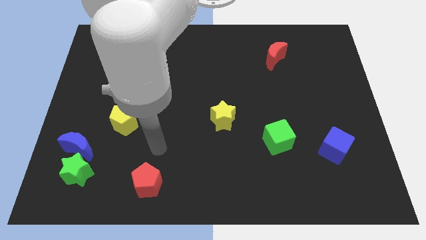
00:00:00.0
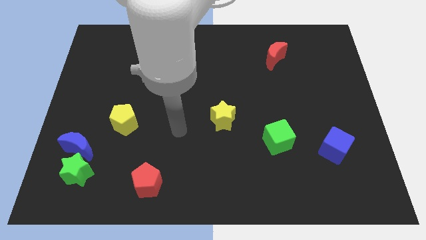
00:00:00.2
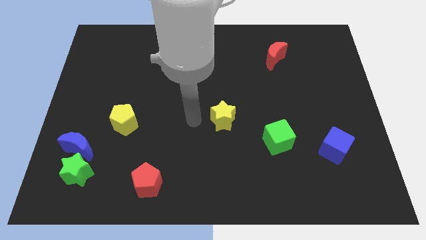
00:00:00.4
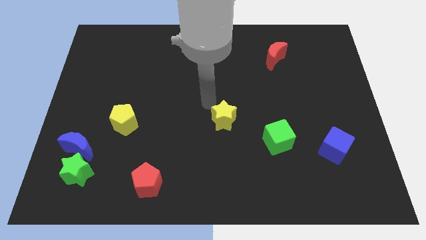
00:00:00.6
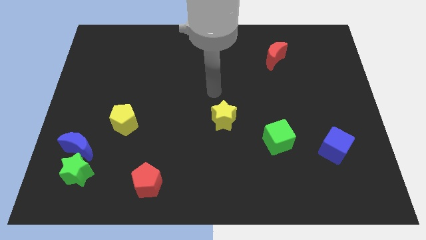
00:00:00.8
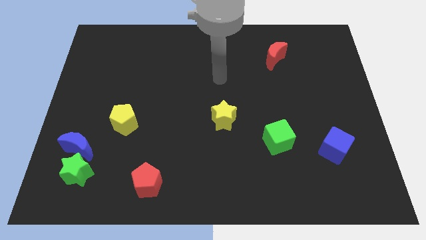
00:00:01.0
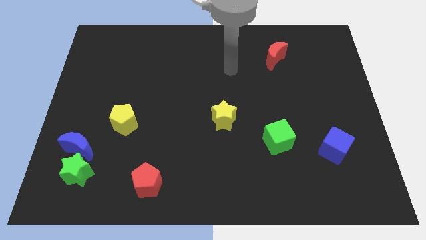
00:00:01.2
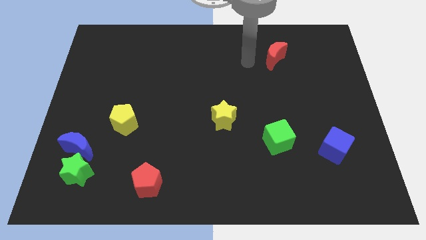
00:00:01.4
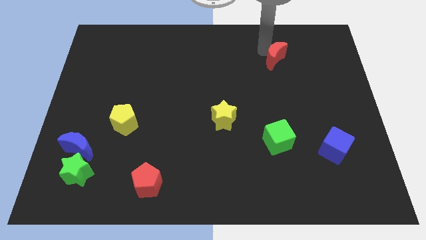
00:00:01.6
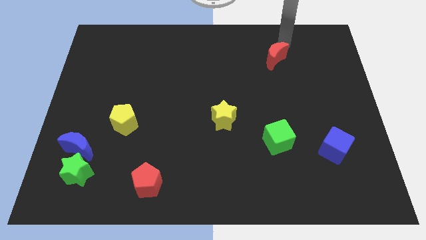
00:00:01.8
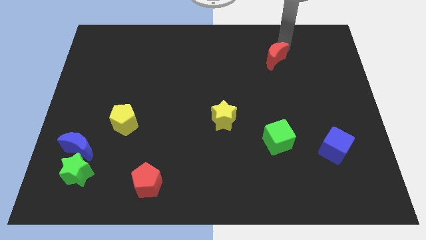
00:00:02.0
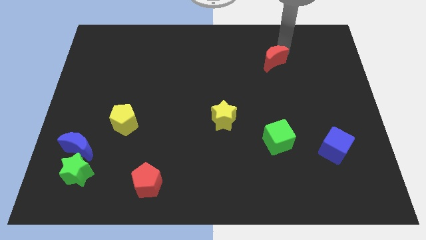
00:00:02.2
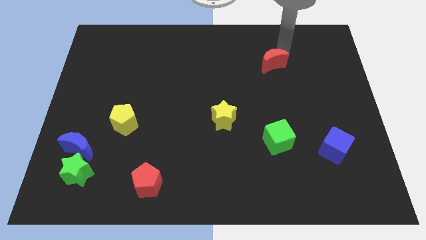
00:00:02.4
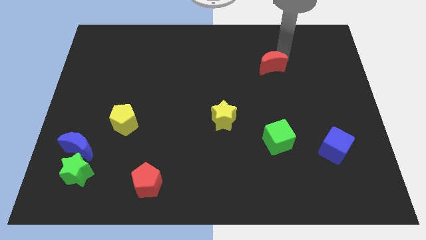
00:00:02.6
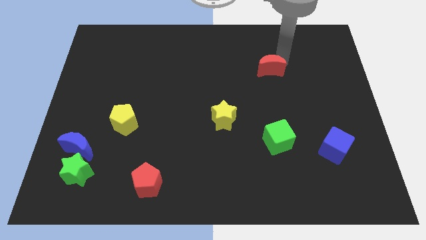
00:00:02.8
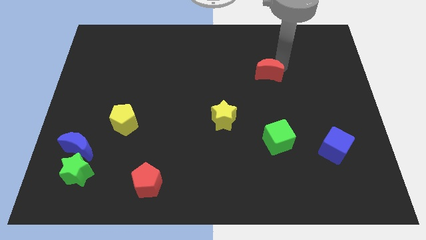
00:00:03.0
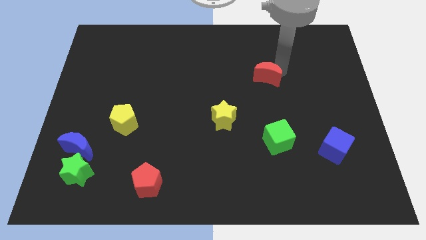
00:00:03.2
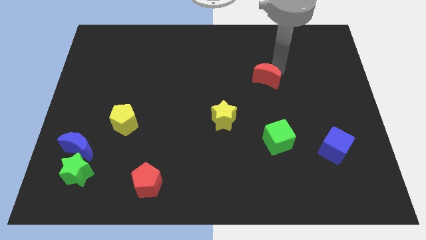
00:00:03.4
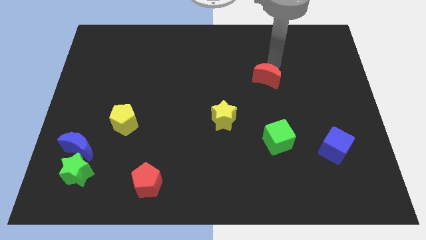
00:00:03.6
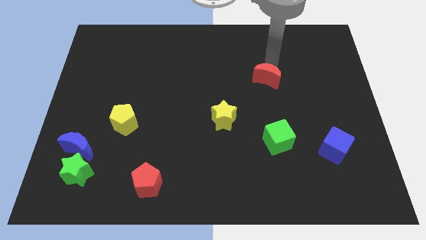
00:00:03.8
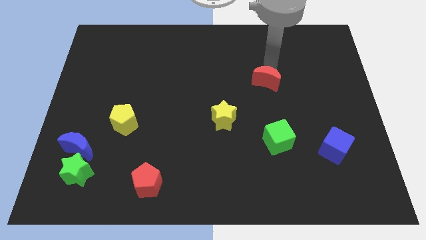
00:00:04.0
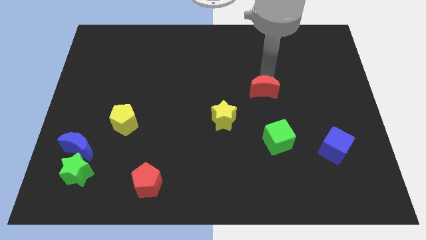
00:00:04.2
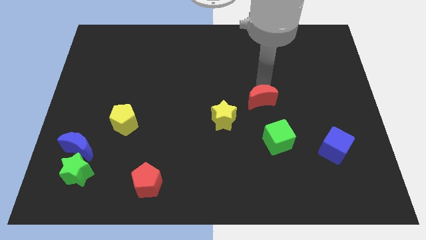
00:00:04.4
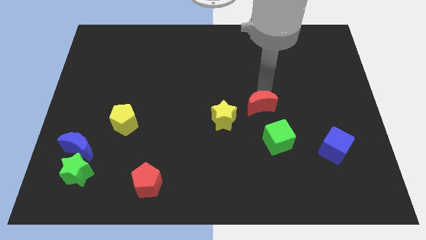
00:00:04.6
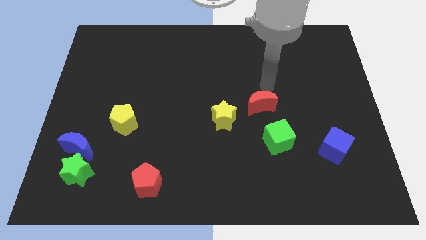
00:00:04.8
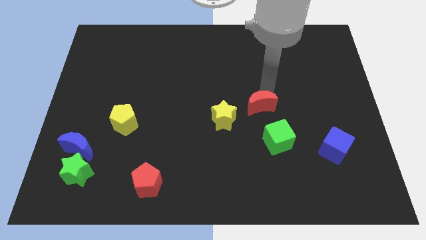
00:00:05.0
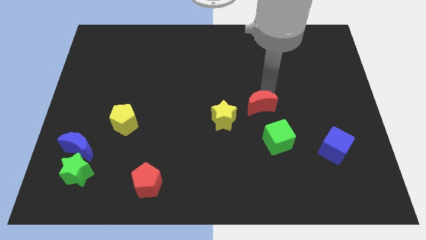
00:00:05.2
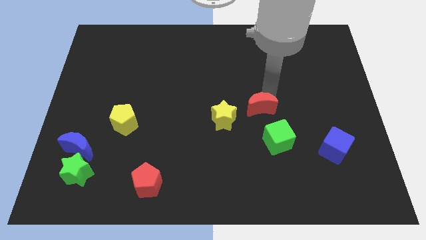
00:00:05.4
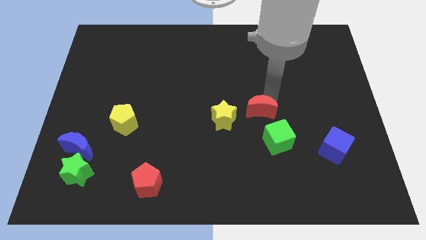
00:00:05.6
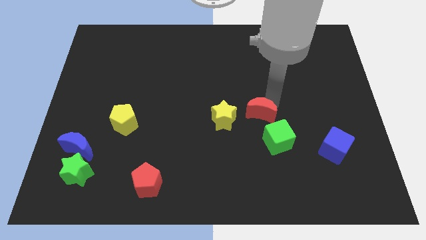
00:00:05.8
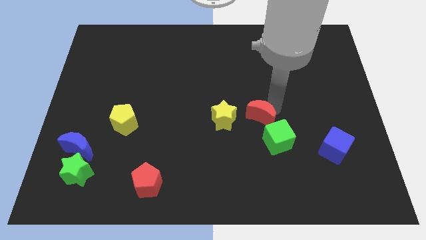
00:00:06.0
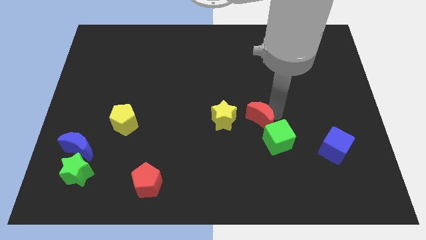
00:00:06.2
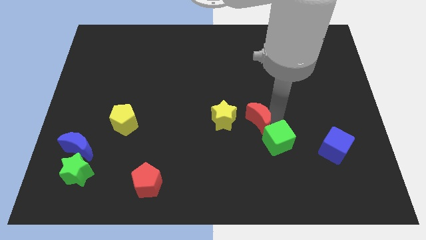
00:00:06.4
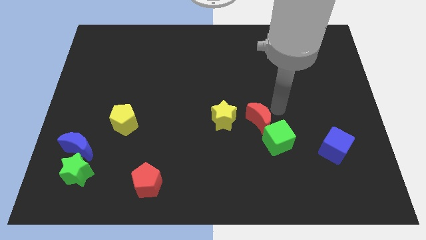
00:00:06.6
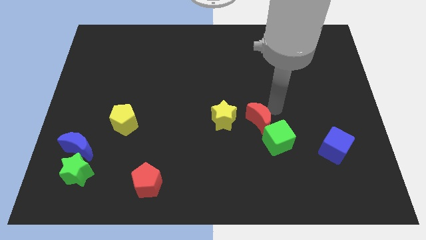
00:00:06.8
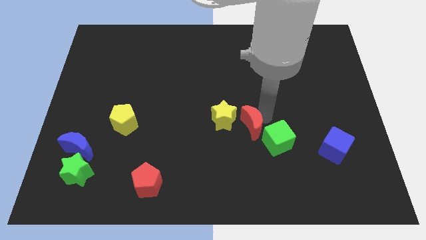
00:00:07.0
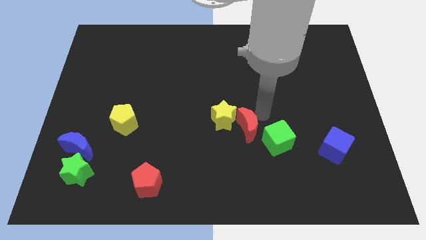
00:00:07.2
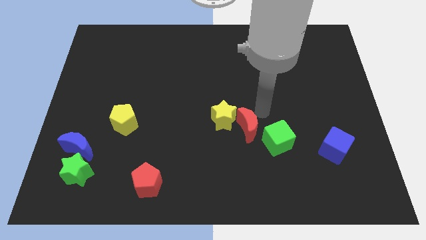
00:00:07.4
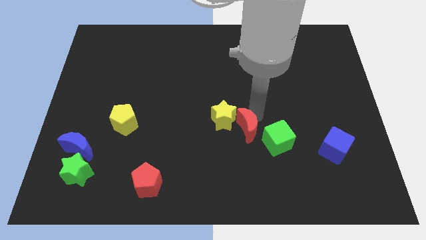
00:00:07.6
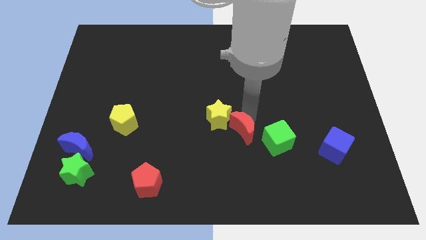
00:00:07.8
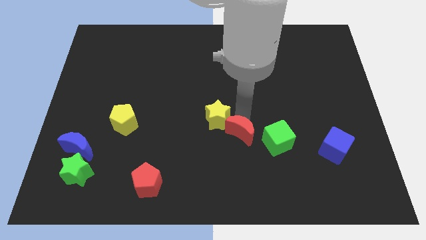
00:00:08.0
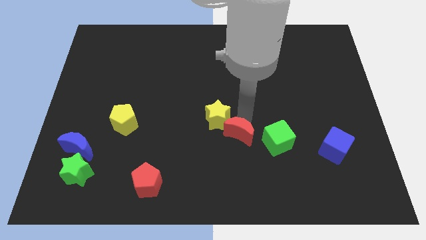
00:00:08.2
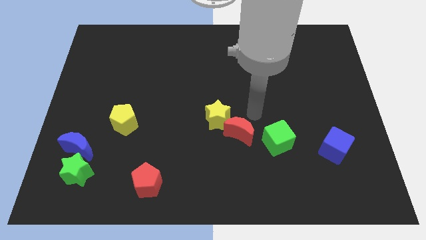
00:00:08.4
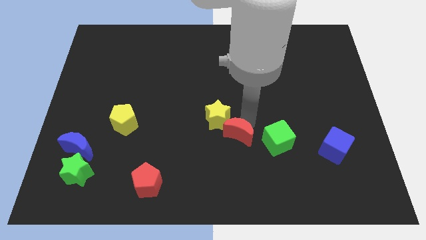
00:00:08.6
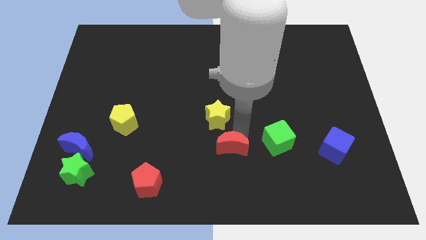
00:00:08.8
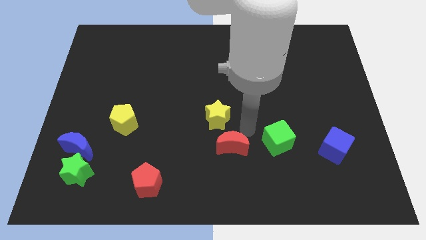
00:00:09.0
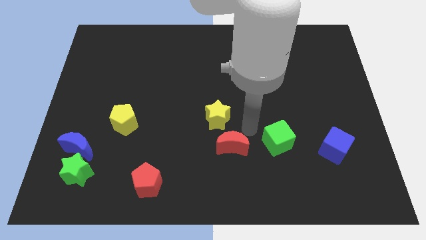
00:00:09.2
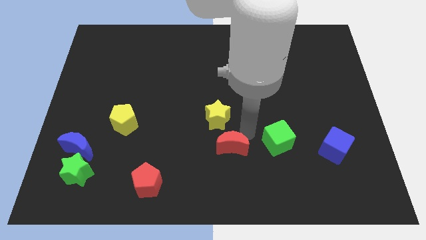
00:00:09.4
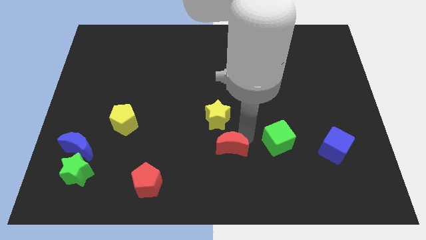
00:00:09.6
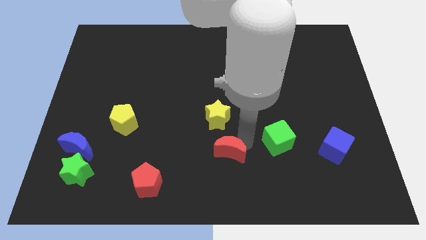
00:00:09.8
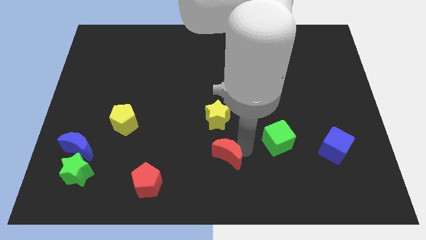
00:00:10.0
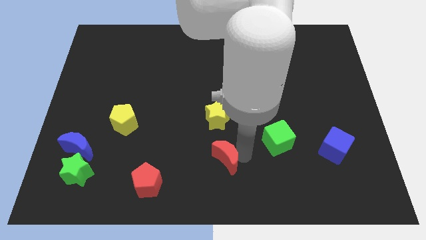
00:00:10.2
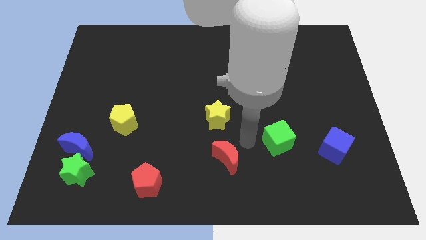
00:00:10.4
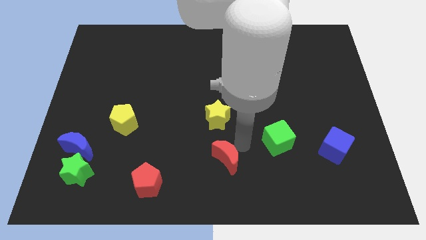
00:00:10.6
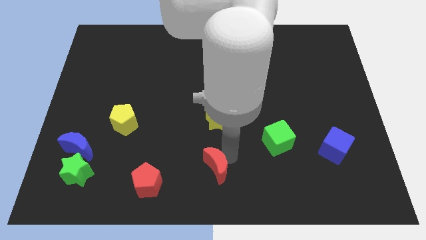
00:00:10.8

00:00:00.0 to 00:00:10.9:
push the red moon to the right side of the red pentagon

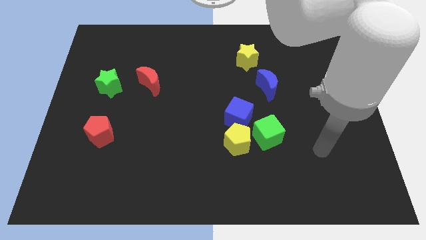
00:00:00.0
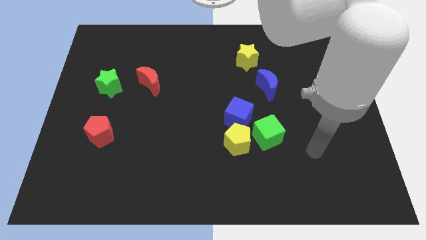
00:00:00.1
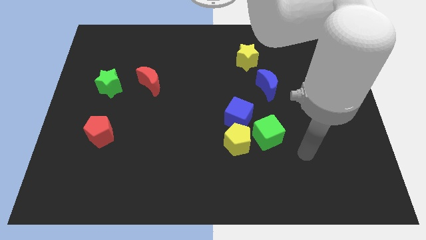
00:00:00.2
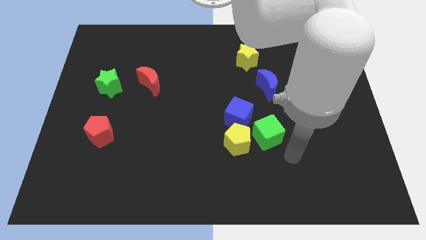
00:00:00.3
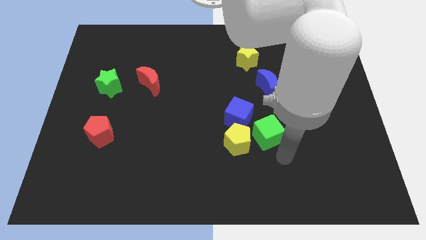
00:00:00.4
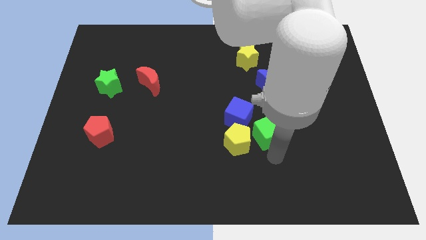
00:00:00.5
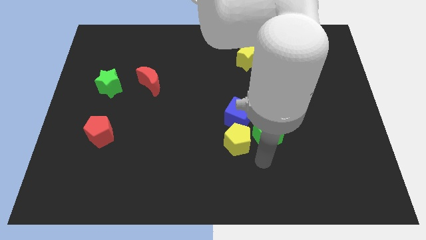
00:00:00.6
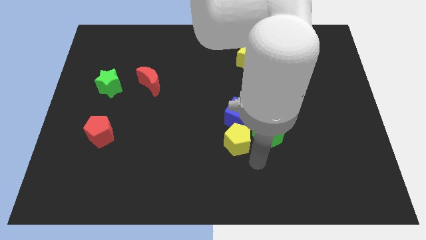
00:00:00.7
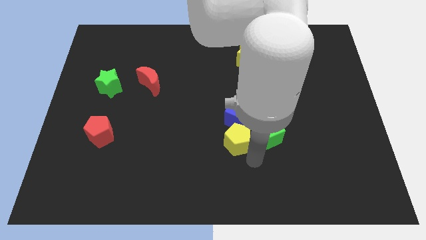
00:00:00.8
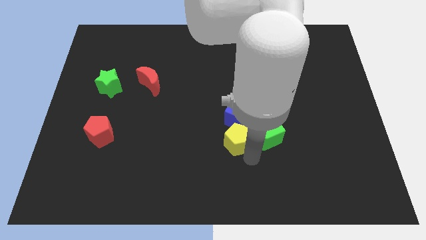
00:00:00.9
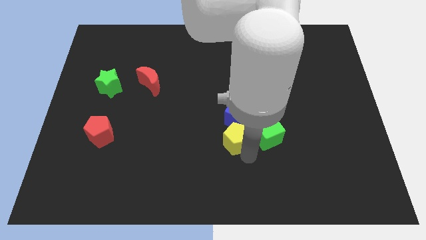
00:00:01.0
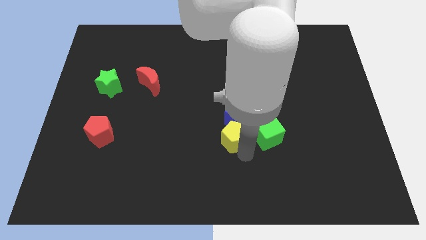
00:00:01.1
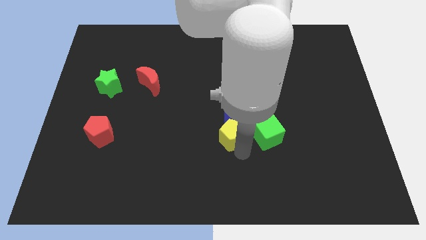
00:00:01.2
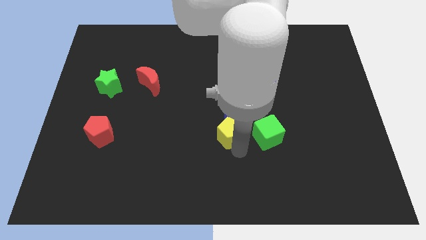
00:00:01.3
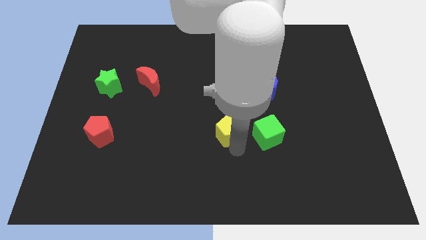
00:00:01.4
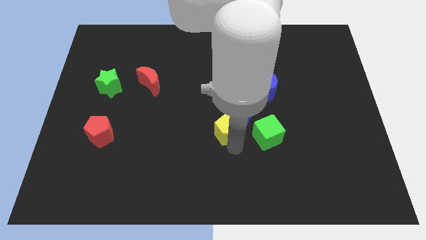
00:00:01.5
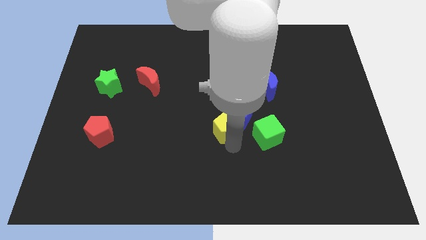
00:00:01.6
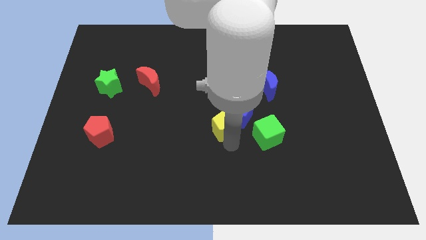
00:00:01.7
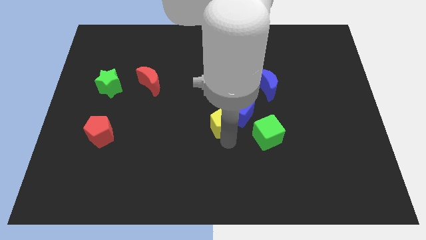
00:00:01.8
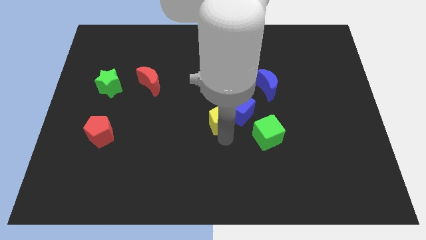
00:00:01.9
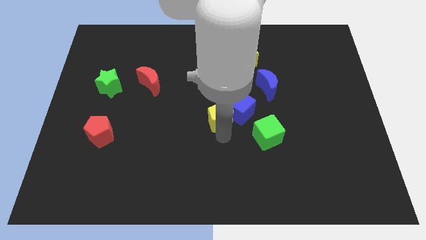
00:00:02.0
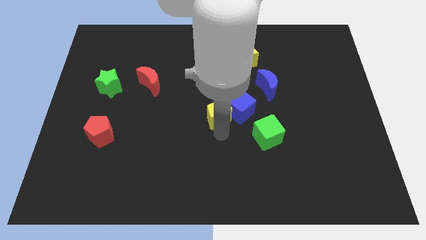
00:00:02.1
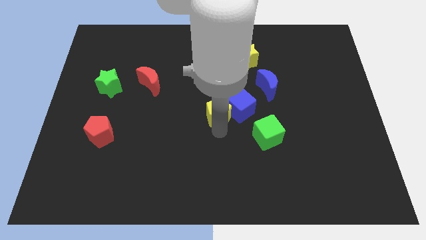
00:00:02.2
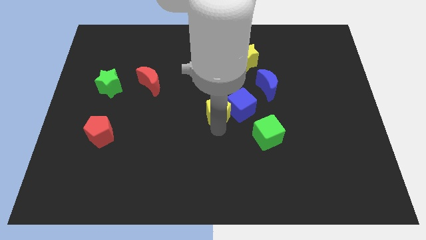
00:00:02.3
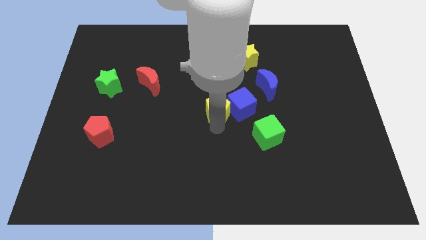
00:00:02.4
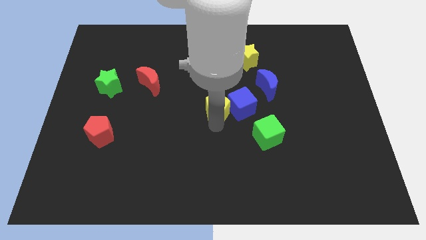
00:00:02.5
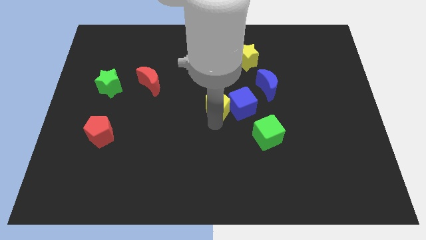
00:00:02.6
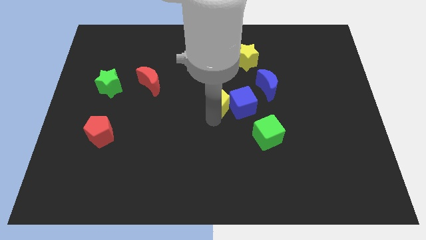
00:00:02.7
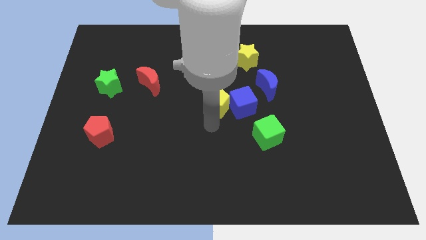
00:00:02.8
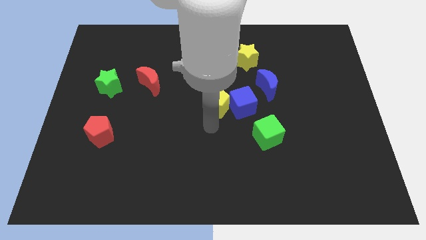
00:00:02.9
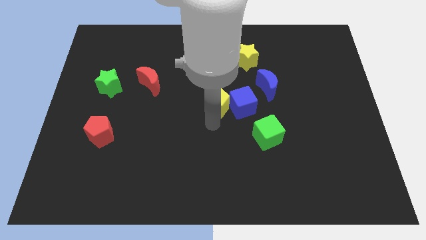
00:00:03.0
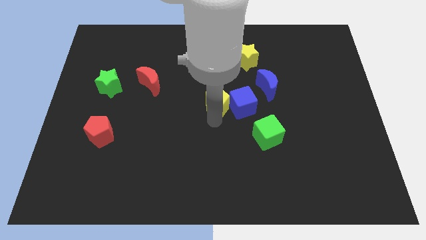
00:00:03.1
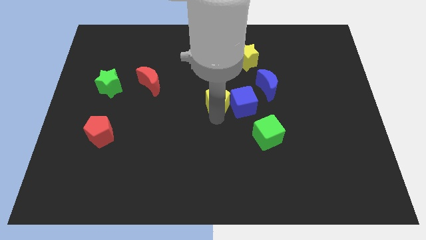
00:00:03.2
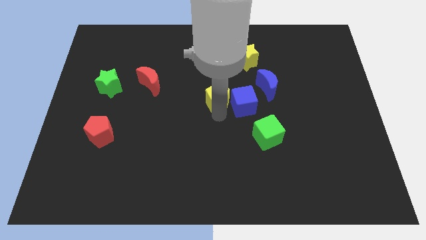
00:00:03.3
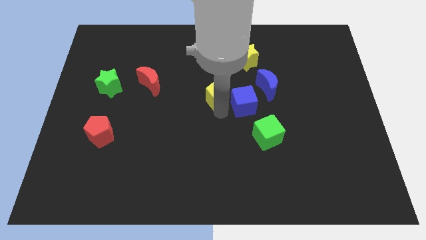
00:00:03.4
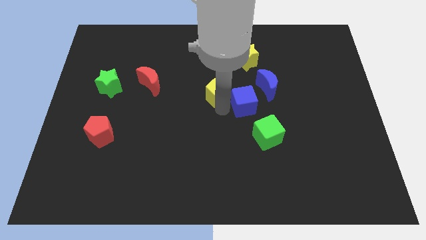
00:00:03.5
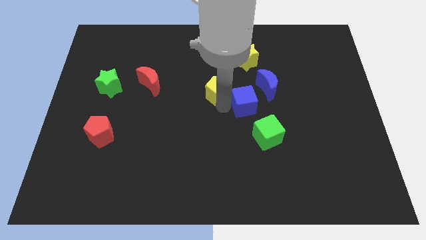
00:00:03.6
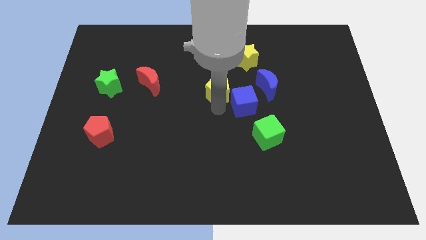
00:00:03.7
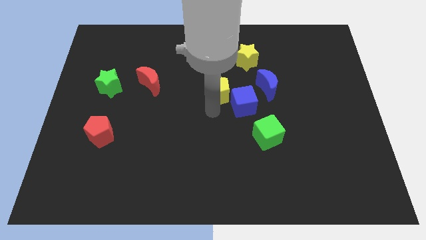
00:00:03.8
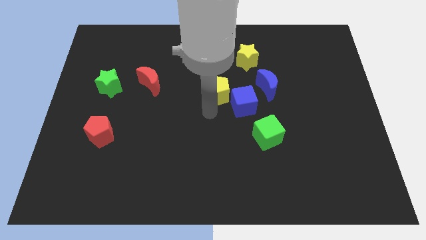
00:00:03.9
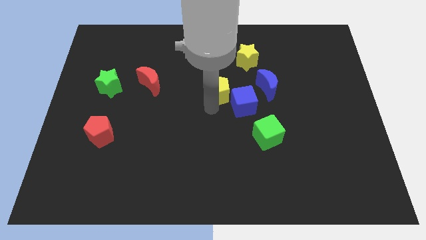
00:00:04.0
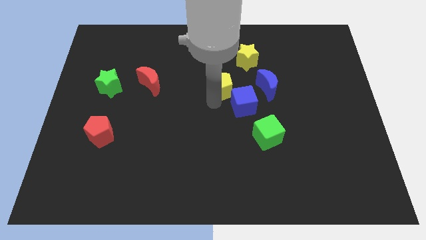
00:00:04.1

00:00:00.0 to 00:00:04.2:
slide the yellow pentagon to the bottom left side of the yellow star
